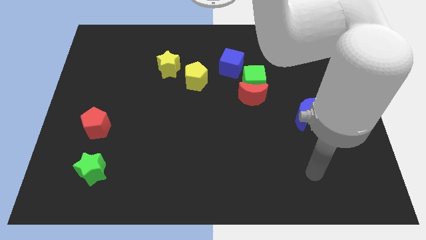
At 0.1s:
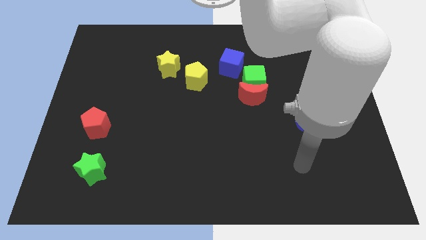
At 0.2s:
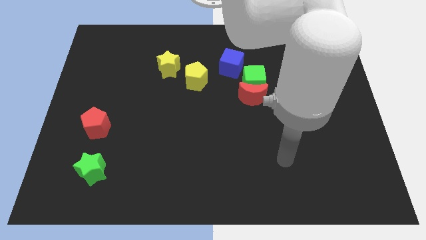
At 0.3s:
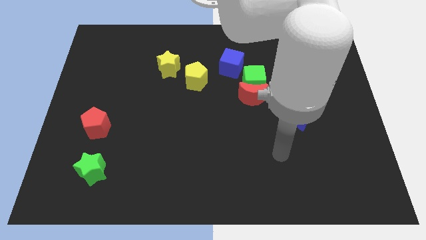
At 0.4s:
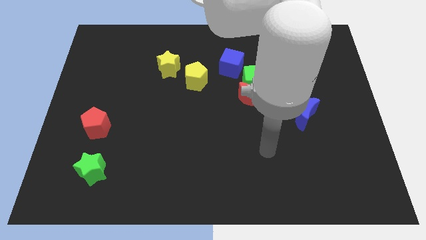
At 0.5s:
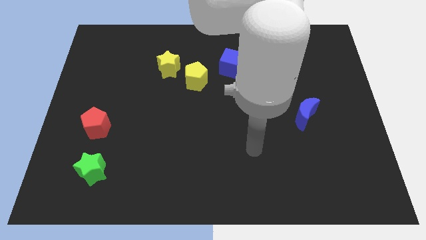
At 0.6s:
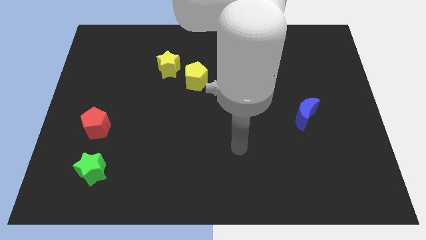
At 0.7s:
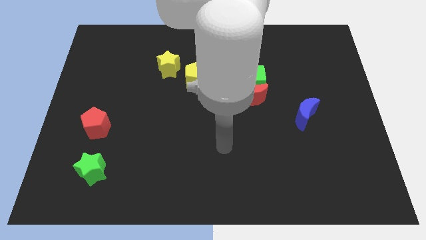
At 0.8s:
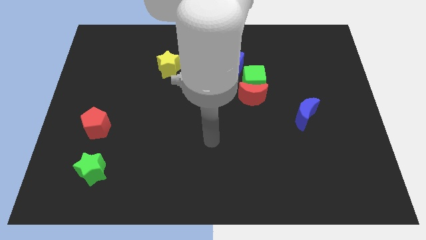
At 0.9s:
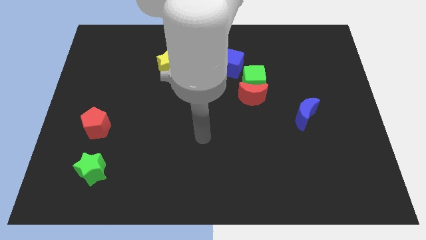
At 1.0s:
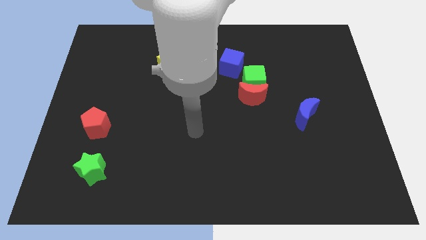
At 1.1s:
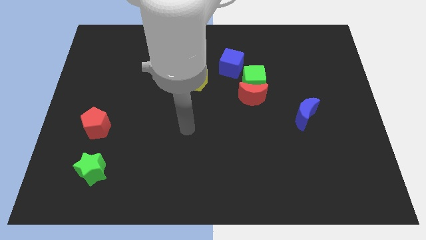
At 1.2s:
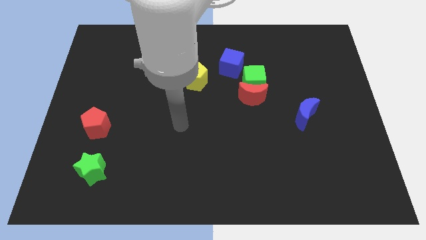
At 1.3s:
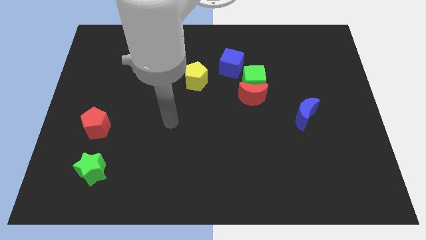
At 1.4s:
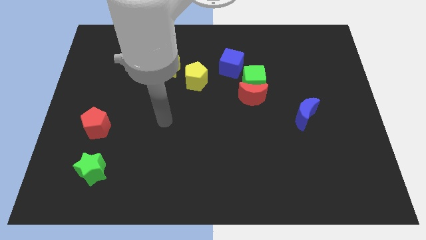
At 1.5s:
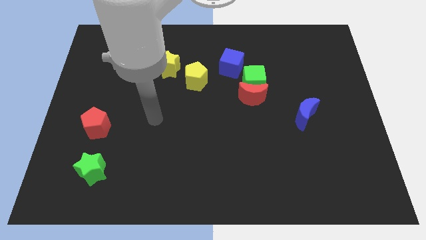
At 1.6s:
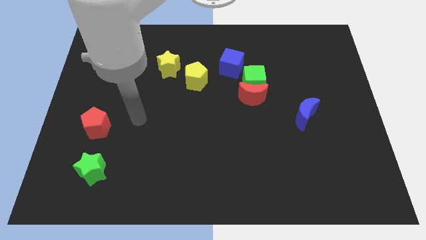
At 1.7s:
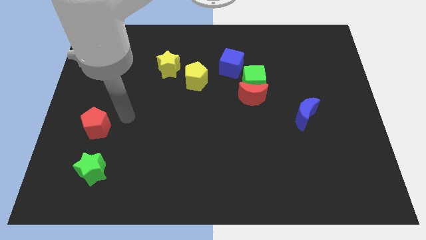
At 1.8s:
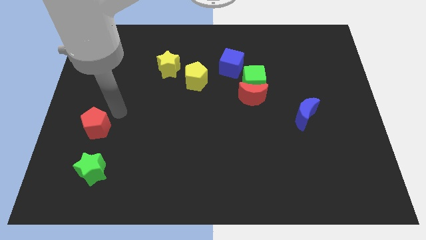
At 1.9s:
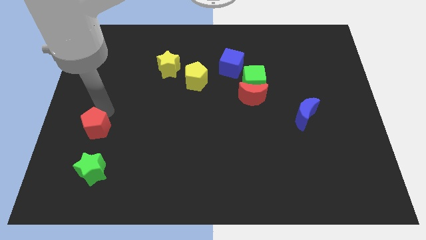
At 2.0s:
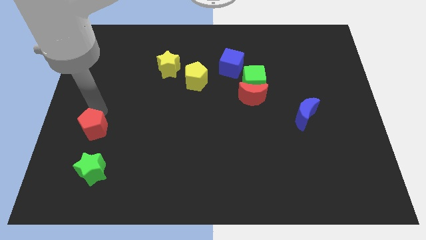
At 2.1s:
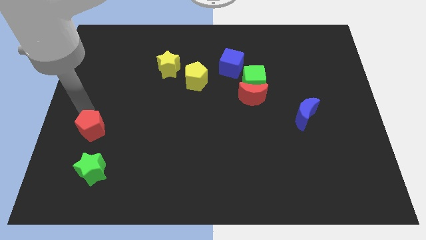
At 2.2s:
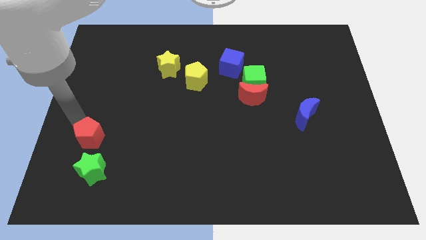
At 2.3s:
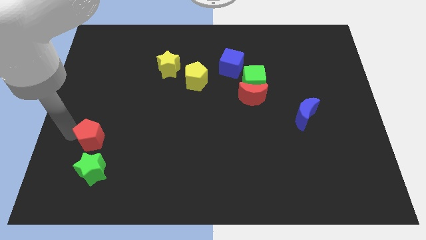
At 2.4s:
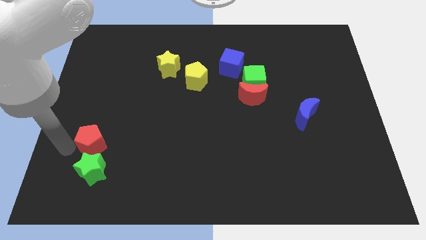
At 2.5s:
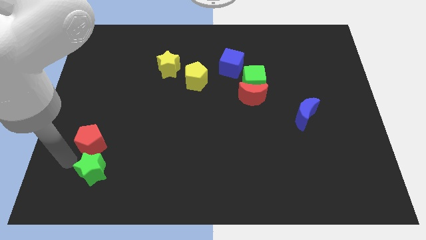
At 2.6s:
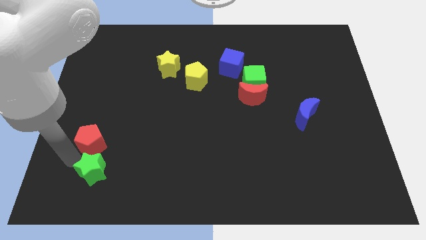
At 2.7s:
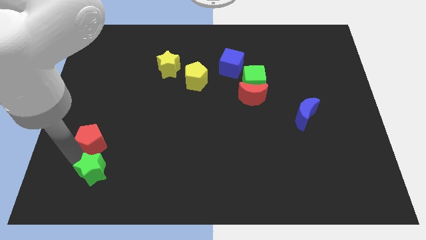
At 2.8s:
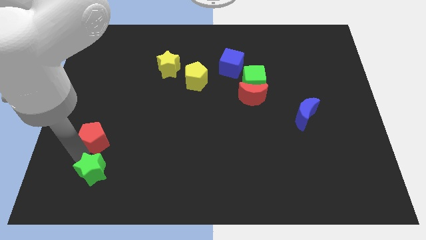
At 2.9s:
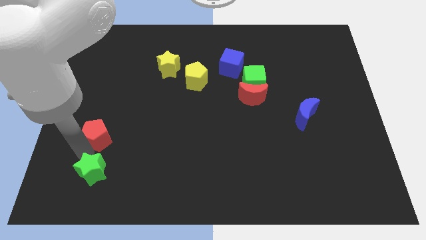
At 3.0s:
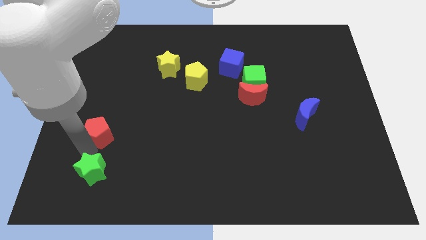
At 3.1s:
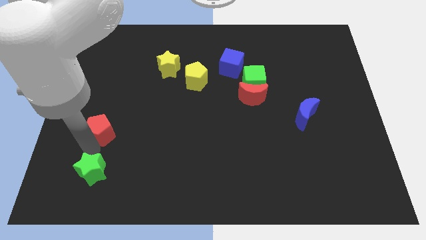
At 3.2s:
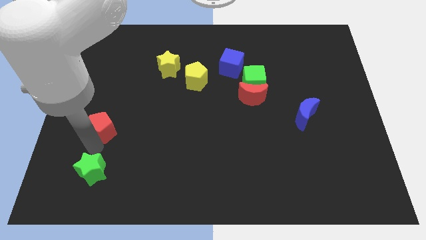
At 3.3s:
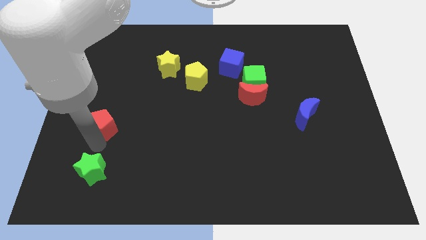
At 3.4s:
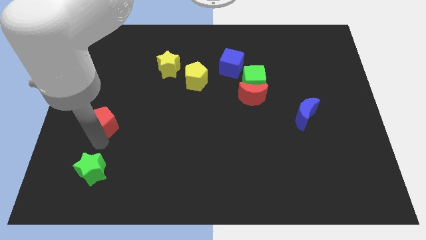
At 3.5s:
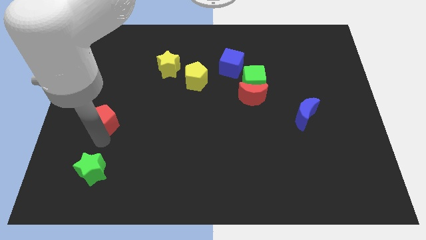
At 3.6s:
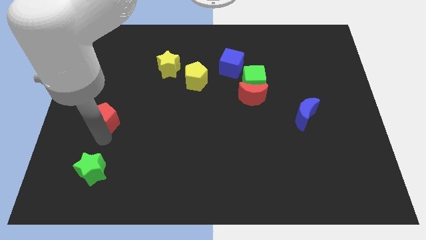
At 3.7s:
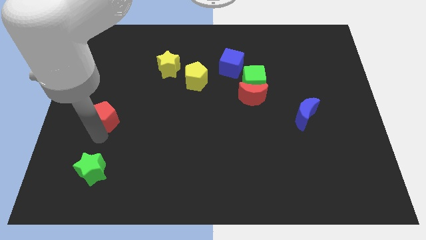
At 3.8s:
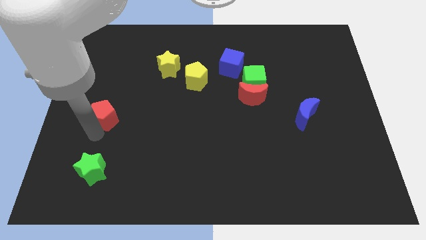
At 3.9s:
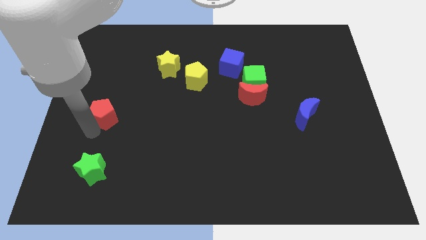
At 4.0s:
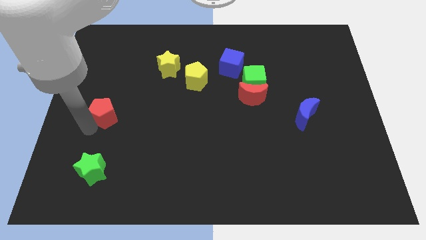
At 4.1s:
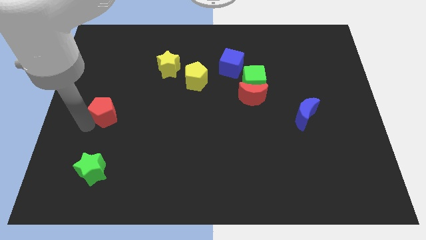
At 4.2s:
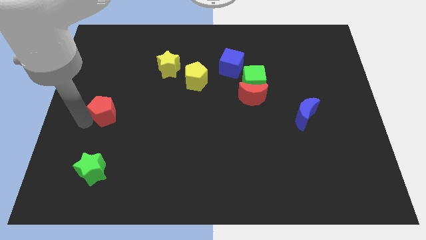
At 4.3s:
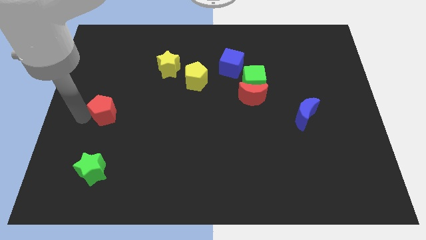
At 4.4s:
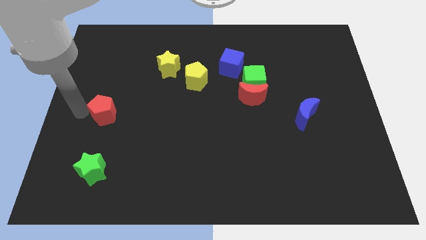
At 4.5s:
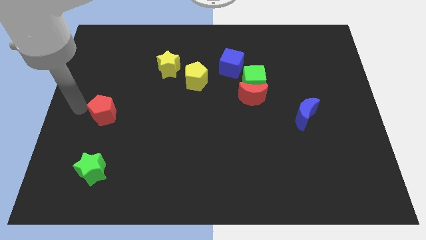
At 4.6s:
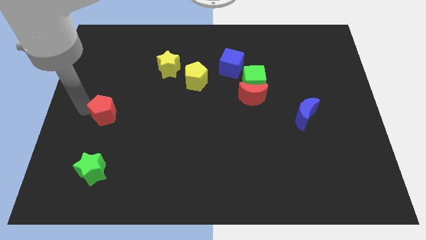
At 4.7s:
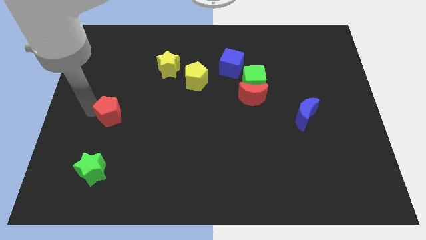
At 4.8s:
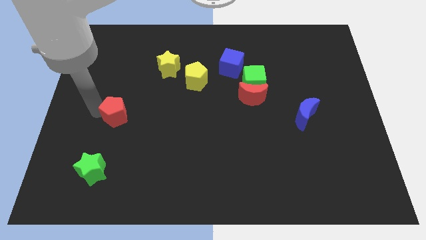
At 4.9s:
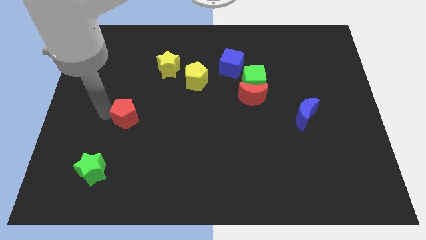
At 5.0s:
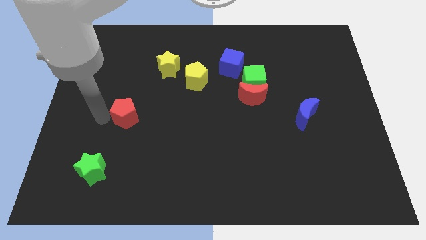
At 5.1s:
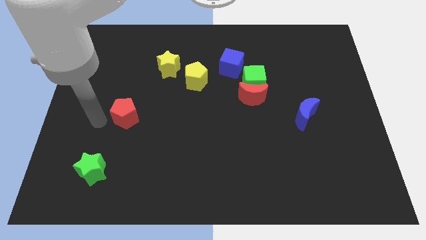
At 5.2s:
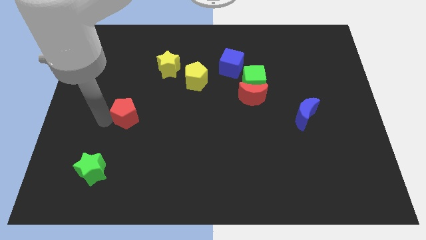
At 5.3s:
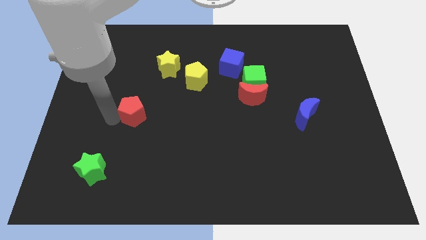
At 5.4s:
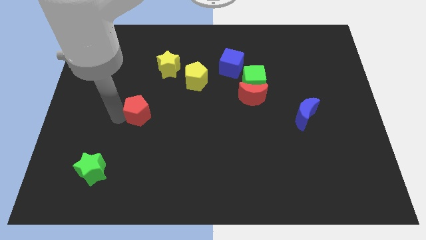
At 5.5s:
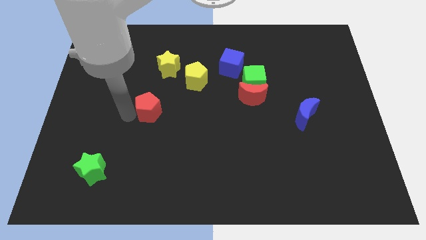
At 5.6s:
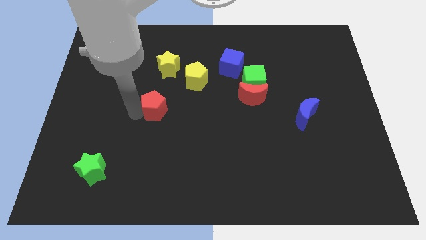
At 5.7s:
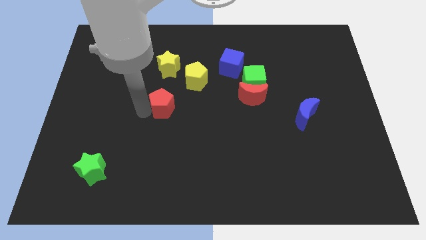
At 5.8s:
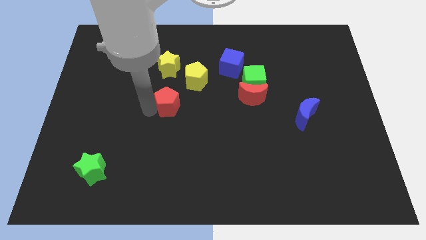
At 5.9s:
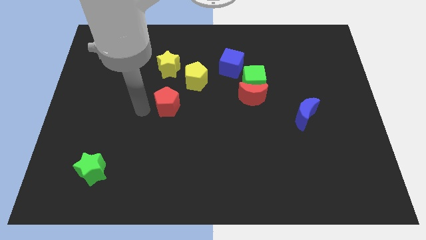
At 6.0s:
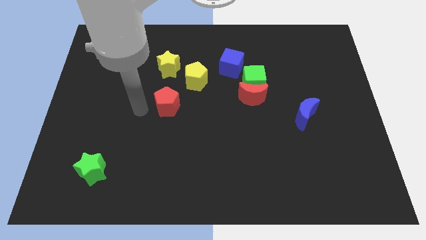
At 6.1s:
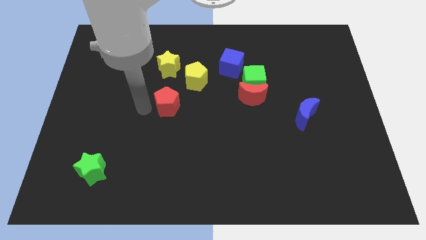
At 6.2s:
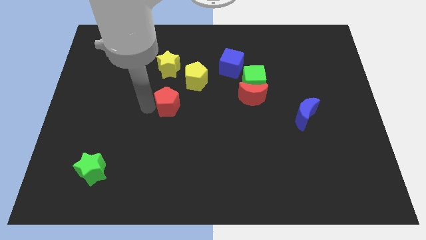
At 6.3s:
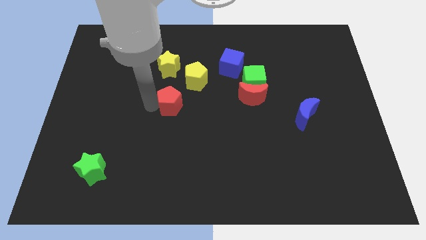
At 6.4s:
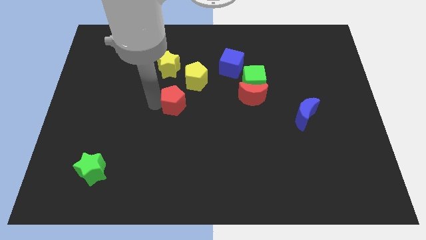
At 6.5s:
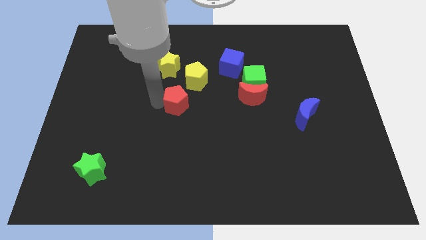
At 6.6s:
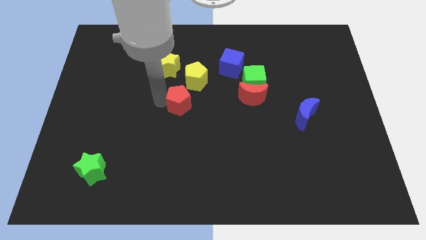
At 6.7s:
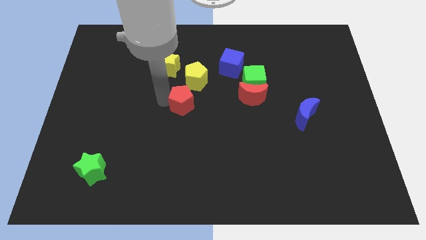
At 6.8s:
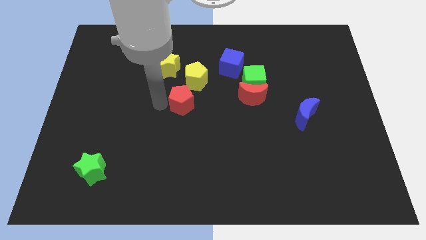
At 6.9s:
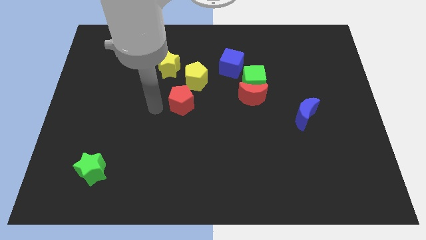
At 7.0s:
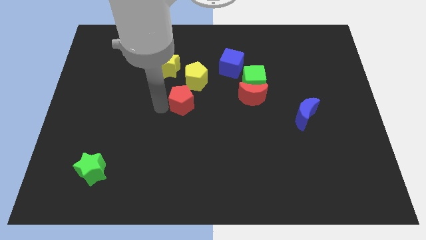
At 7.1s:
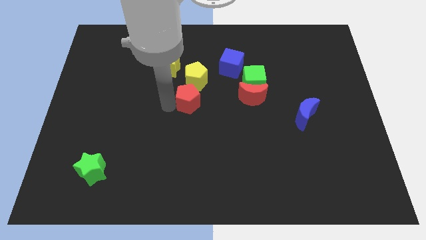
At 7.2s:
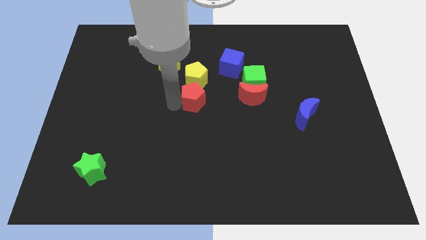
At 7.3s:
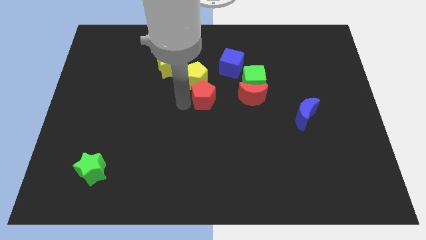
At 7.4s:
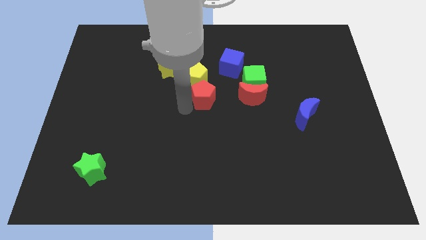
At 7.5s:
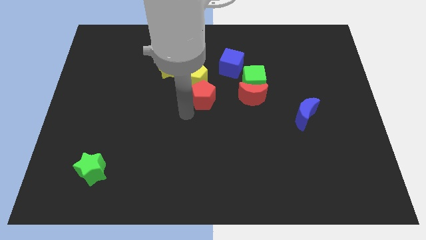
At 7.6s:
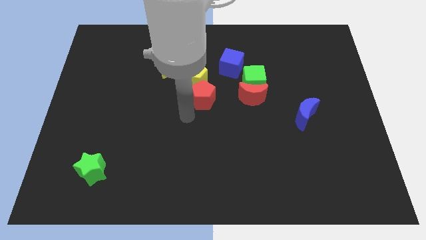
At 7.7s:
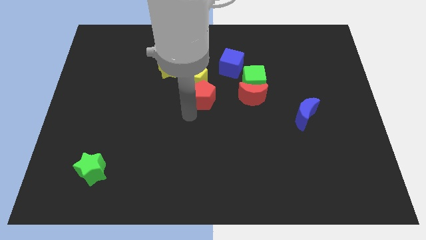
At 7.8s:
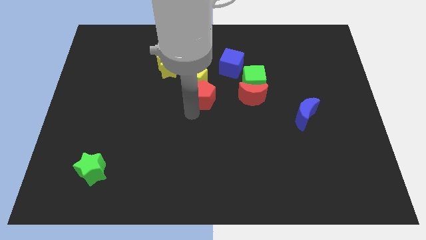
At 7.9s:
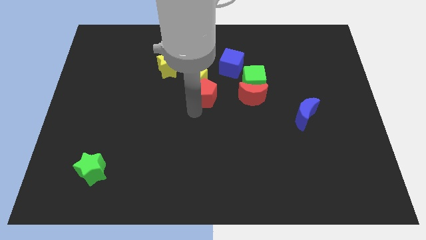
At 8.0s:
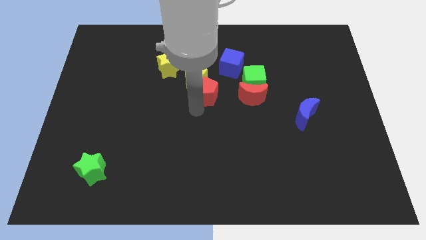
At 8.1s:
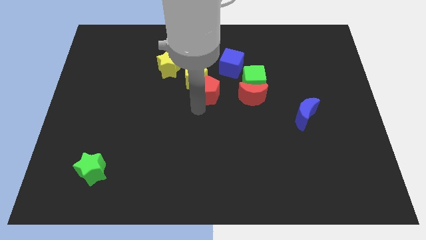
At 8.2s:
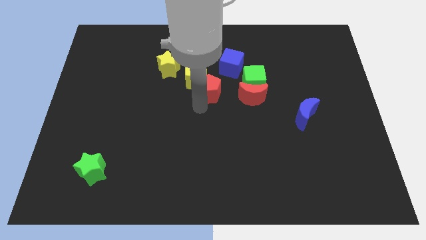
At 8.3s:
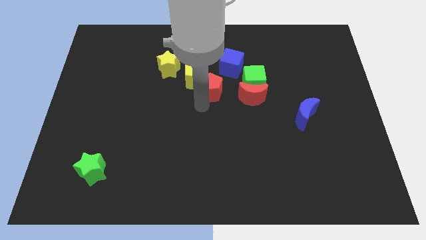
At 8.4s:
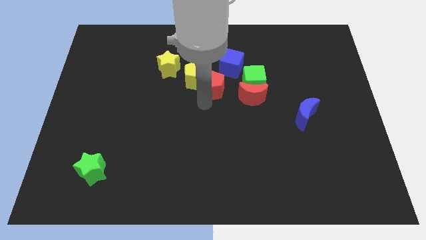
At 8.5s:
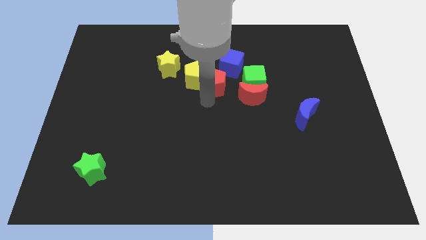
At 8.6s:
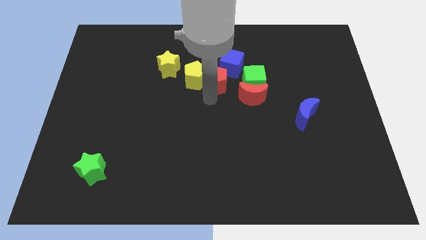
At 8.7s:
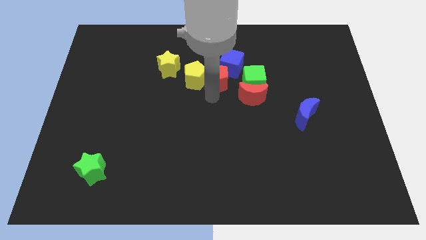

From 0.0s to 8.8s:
move the red pentagon close to the blue cube
